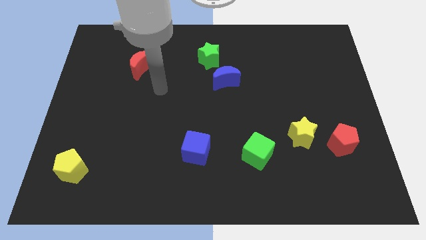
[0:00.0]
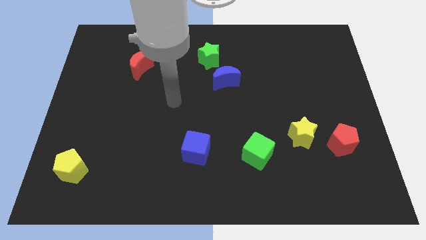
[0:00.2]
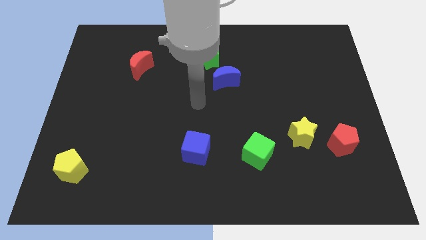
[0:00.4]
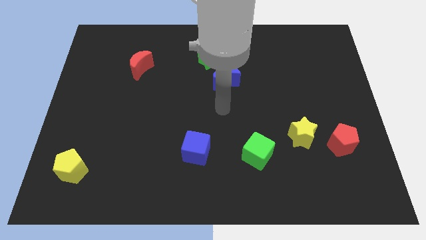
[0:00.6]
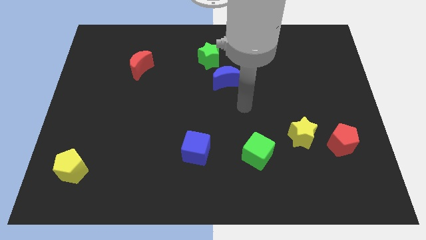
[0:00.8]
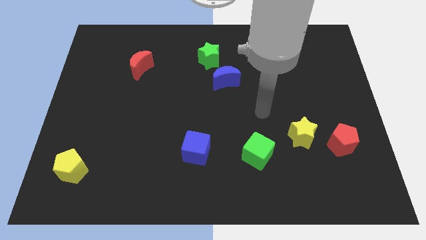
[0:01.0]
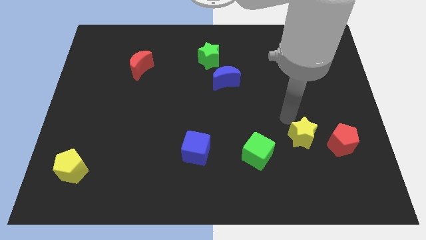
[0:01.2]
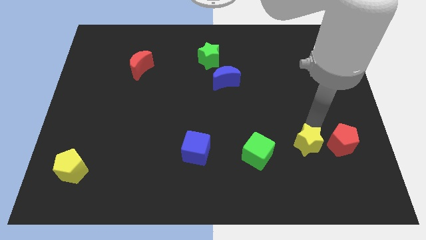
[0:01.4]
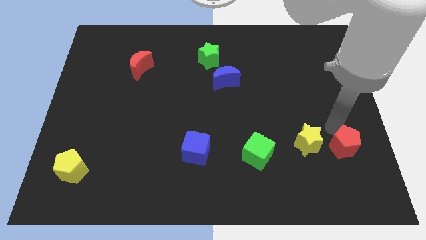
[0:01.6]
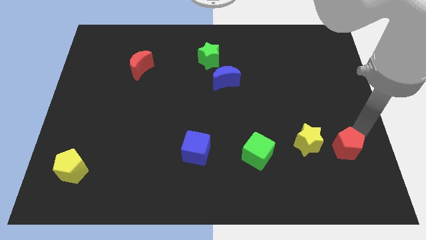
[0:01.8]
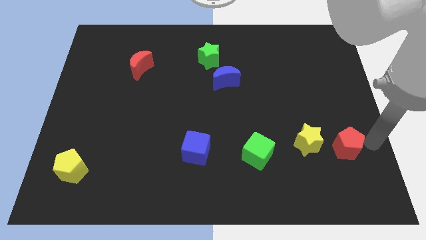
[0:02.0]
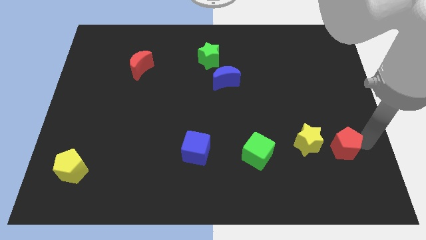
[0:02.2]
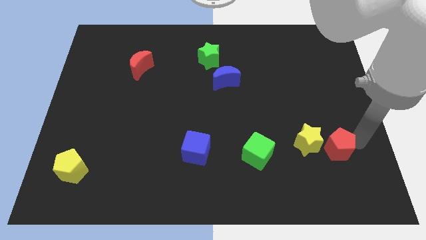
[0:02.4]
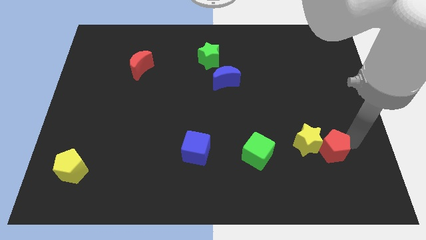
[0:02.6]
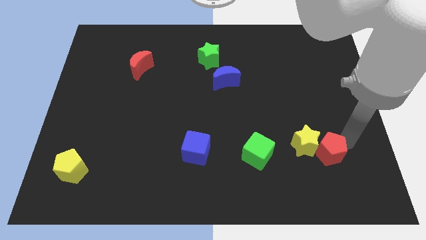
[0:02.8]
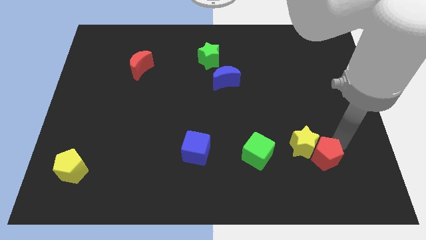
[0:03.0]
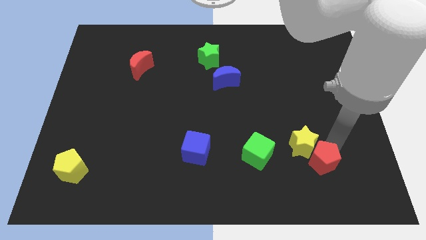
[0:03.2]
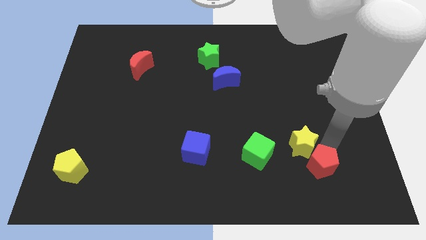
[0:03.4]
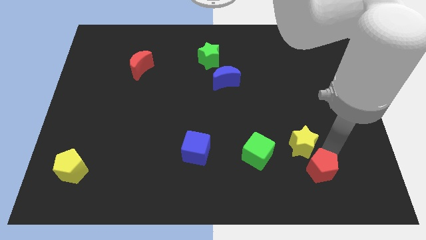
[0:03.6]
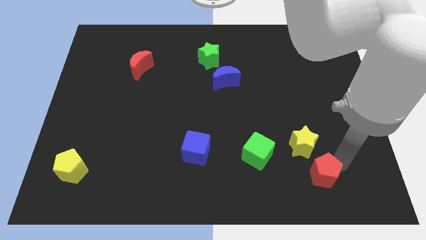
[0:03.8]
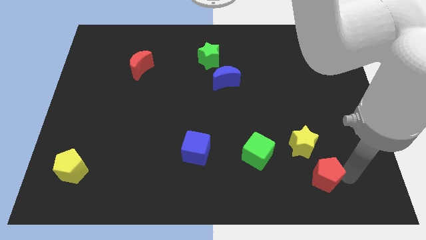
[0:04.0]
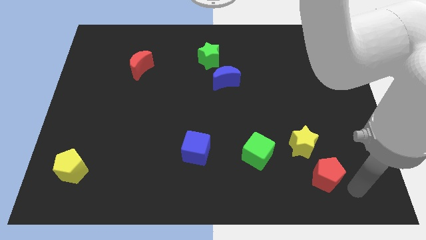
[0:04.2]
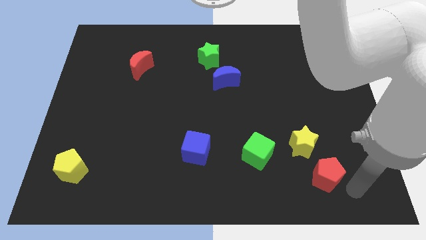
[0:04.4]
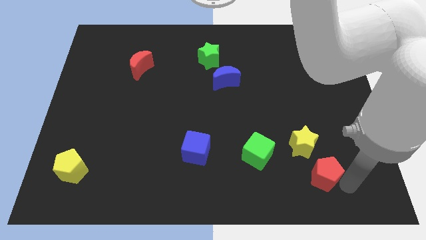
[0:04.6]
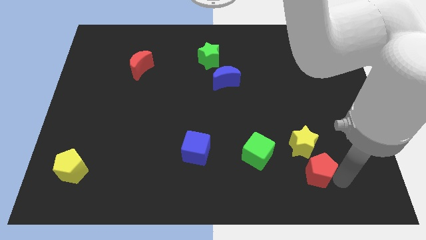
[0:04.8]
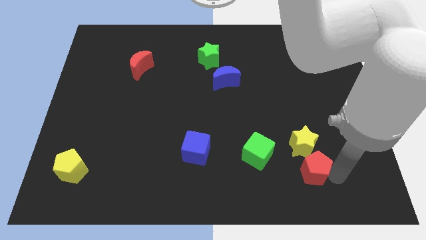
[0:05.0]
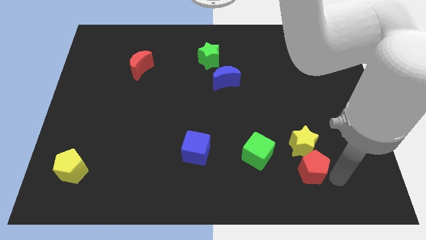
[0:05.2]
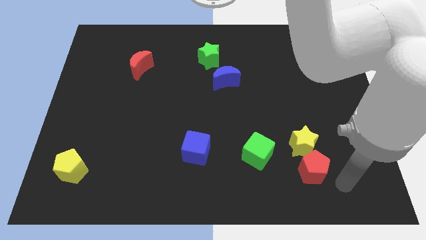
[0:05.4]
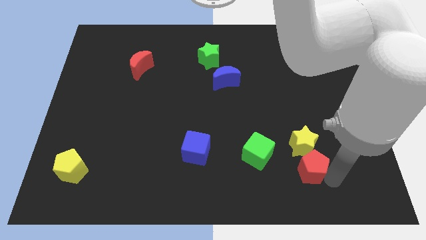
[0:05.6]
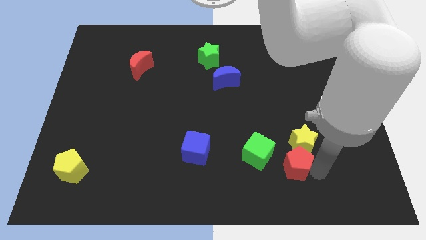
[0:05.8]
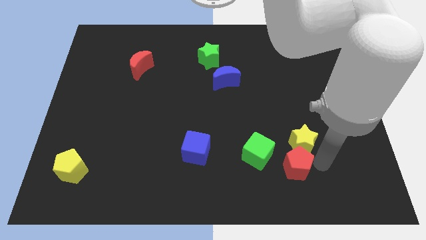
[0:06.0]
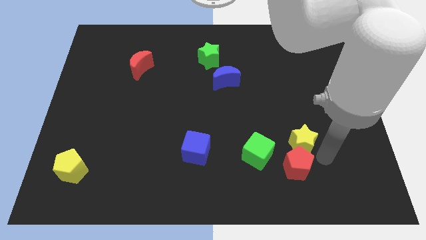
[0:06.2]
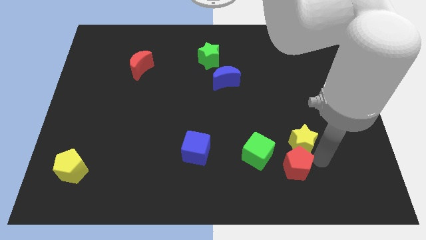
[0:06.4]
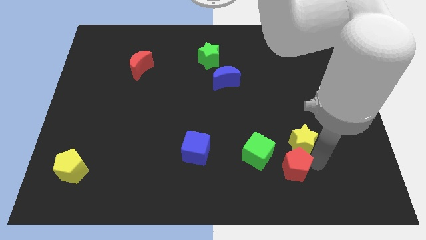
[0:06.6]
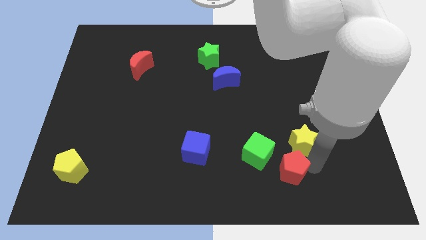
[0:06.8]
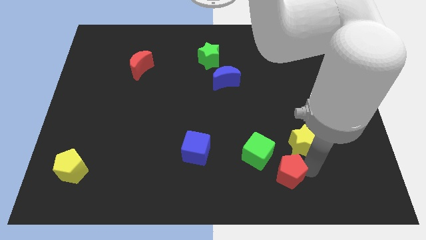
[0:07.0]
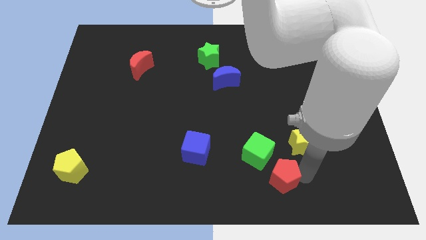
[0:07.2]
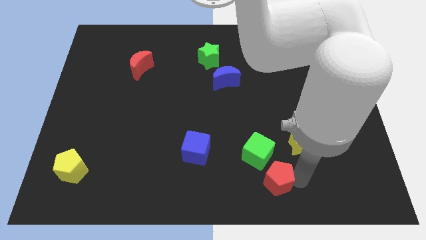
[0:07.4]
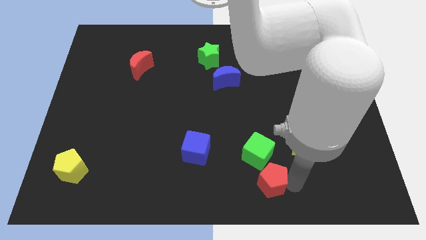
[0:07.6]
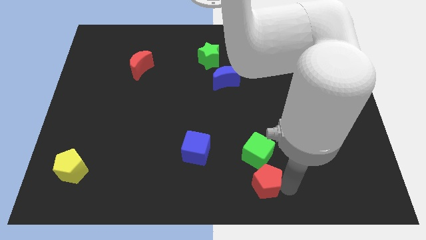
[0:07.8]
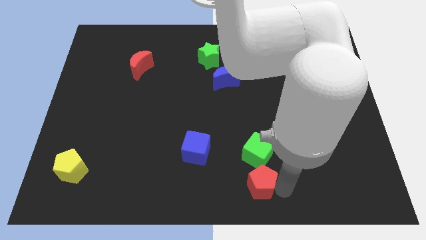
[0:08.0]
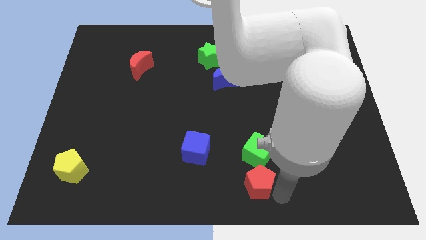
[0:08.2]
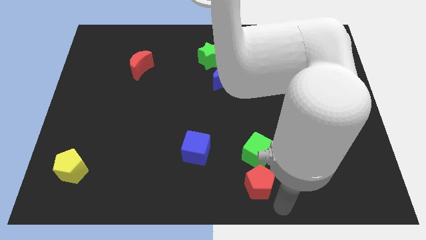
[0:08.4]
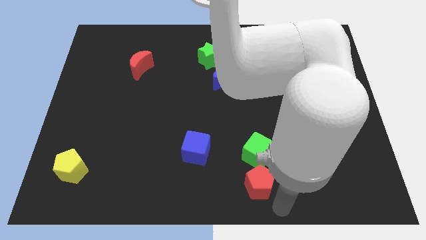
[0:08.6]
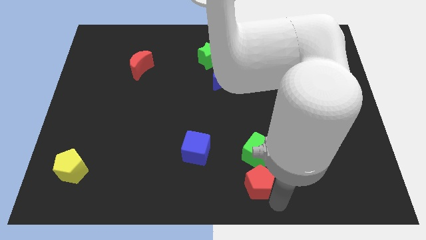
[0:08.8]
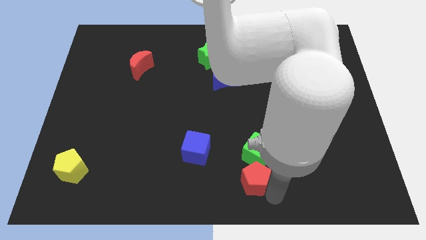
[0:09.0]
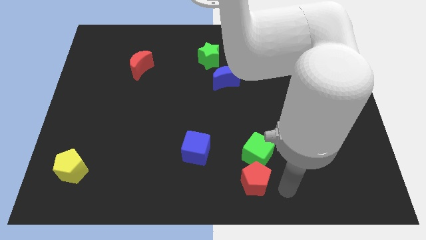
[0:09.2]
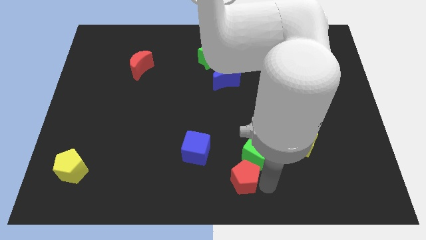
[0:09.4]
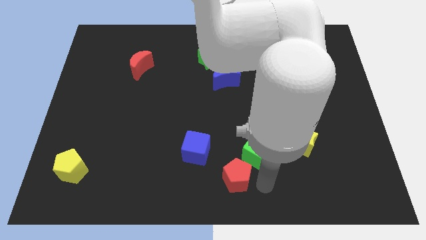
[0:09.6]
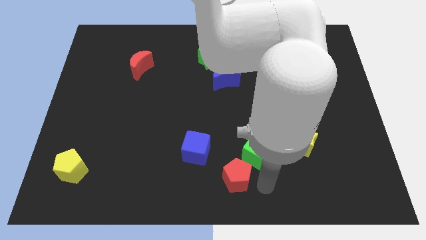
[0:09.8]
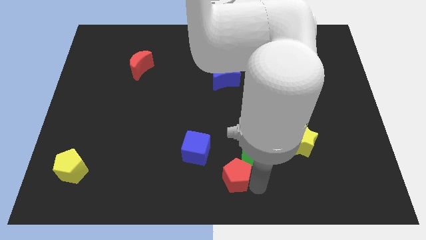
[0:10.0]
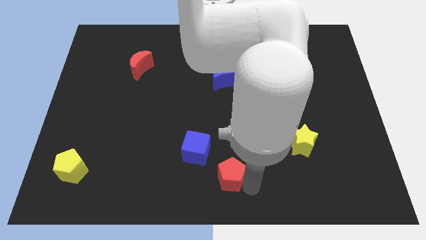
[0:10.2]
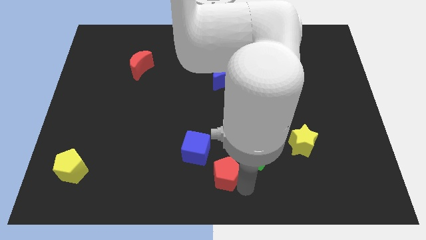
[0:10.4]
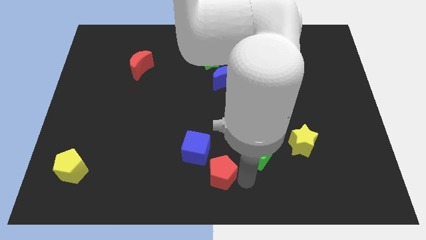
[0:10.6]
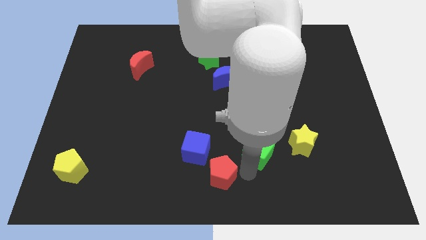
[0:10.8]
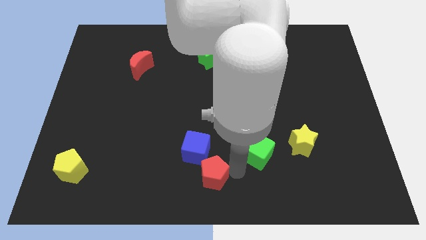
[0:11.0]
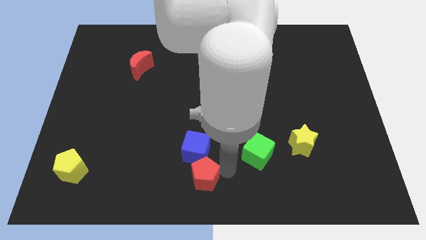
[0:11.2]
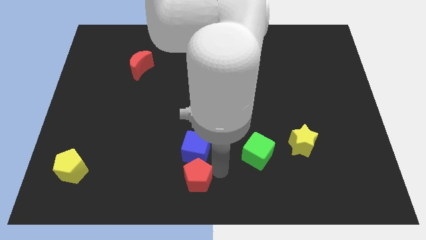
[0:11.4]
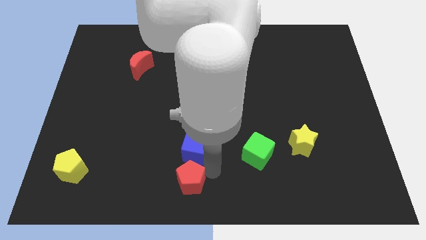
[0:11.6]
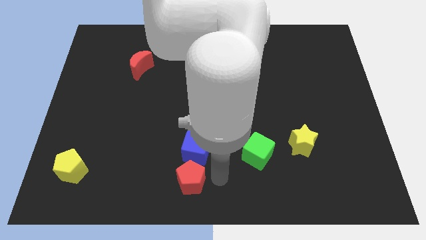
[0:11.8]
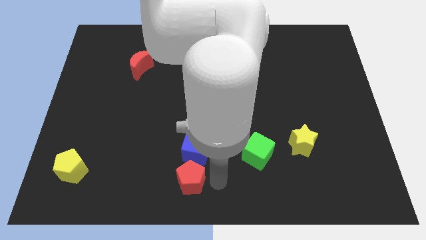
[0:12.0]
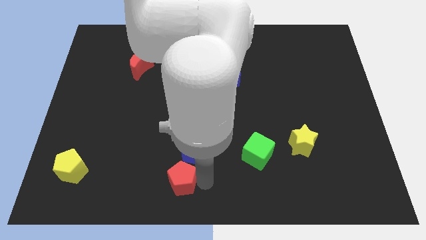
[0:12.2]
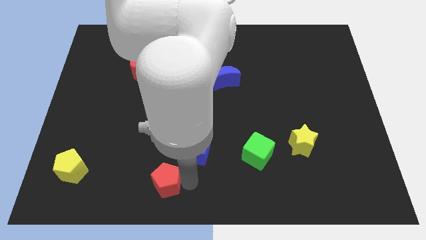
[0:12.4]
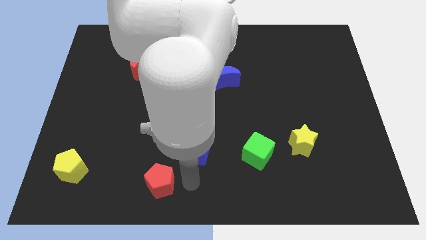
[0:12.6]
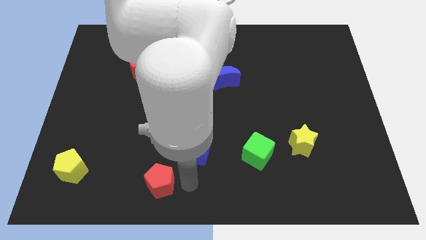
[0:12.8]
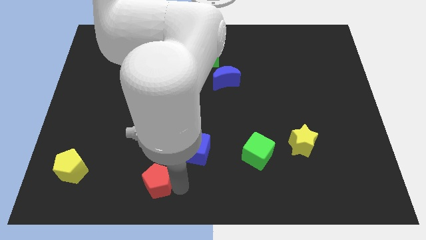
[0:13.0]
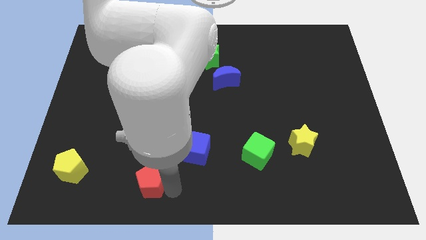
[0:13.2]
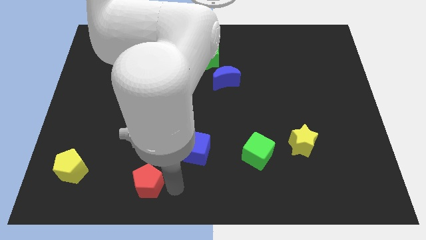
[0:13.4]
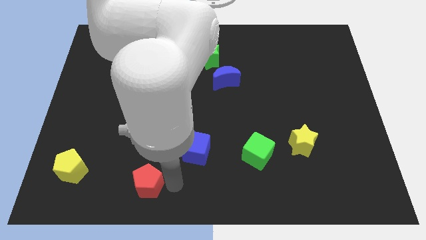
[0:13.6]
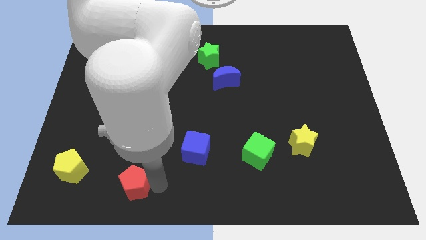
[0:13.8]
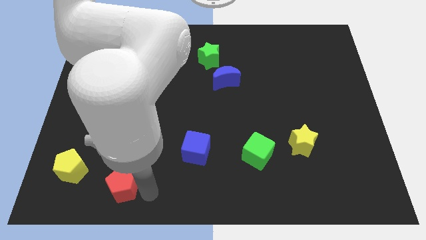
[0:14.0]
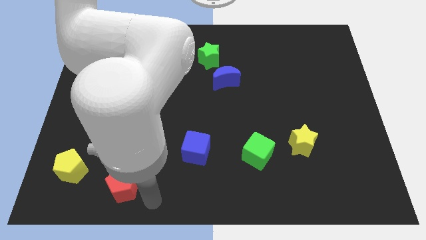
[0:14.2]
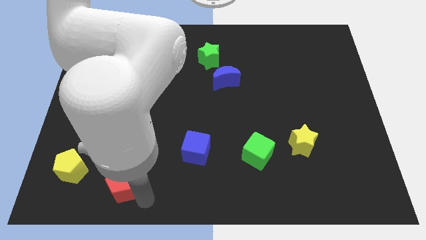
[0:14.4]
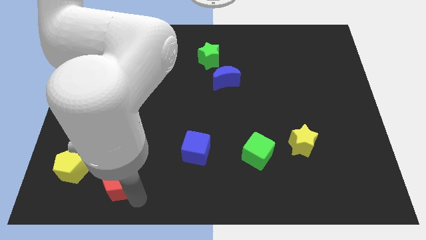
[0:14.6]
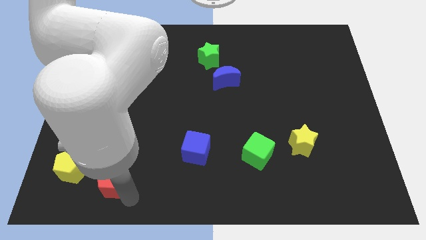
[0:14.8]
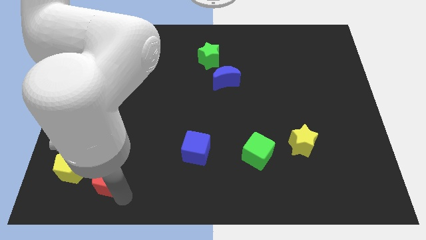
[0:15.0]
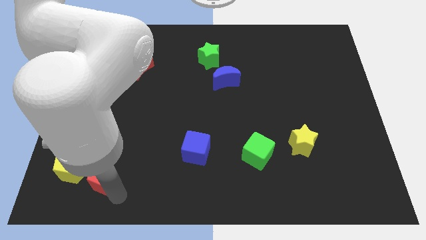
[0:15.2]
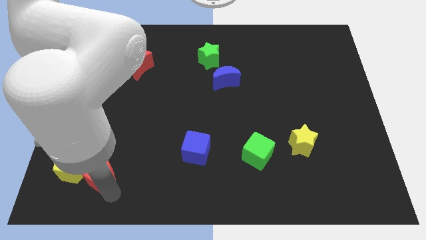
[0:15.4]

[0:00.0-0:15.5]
move the red pentagon to the yellow pentagon
